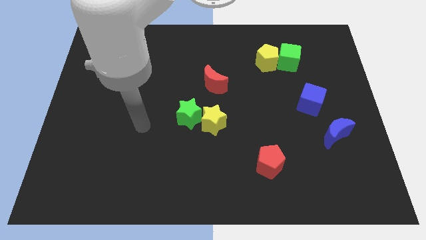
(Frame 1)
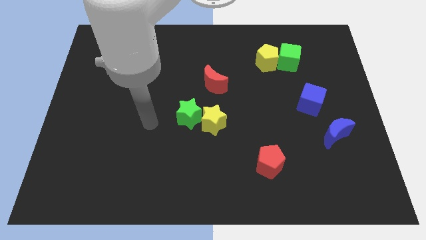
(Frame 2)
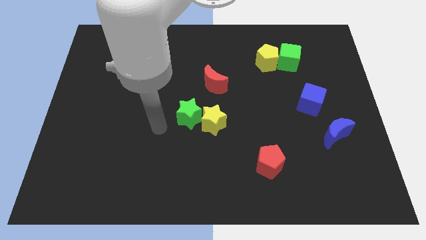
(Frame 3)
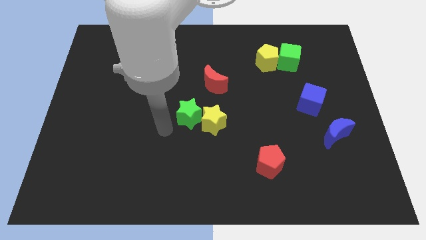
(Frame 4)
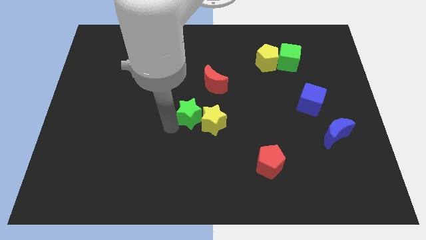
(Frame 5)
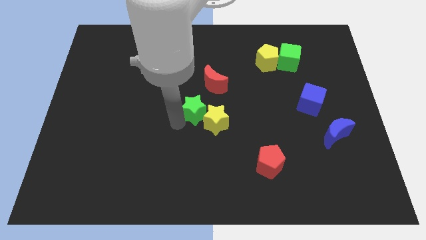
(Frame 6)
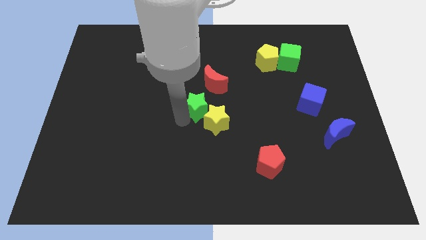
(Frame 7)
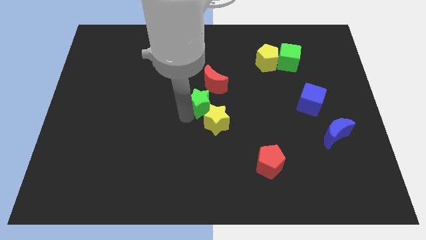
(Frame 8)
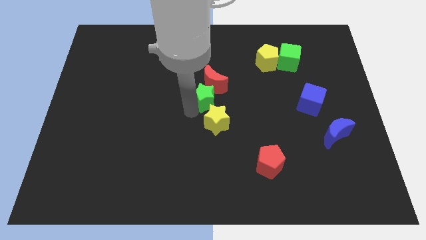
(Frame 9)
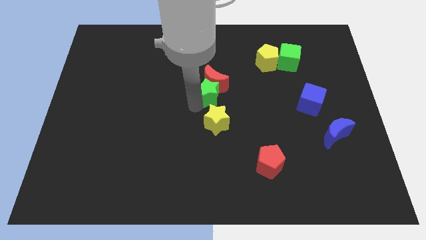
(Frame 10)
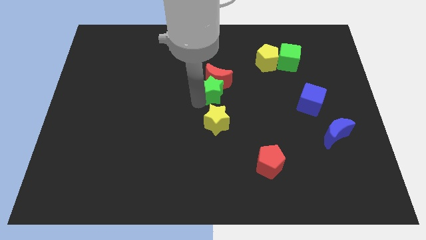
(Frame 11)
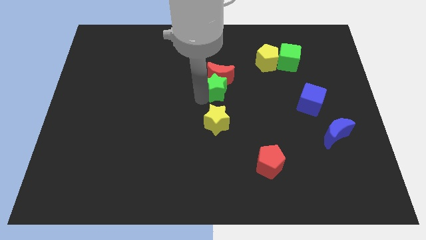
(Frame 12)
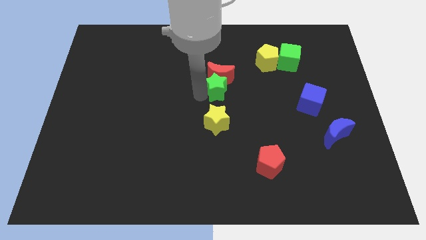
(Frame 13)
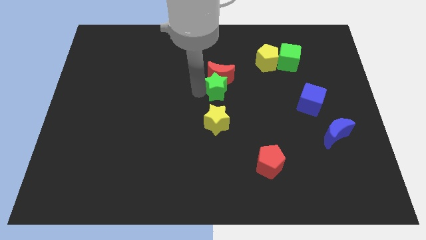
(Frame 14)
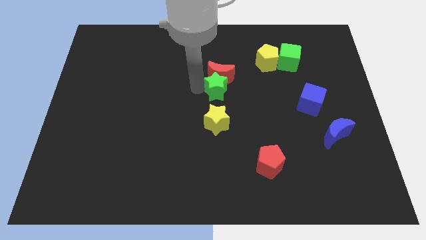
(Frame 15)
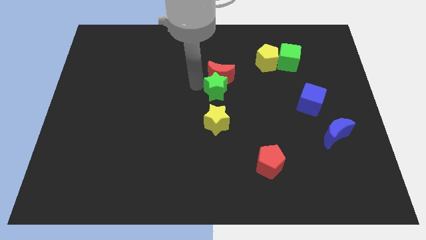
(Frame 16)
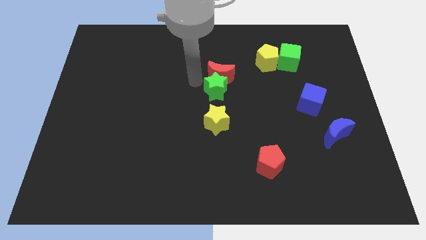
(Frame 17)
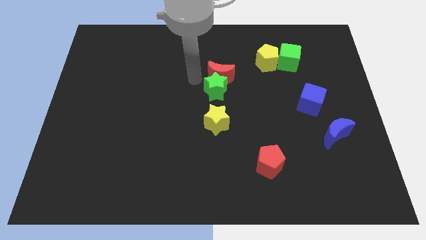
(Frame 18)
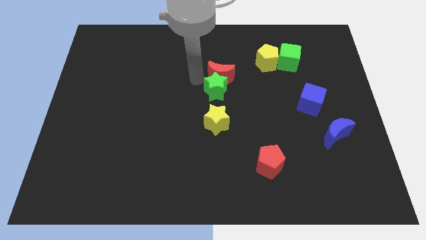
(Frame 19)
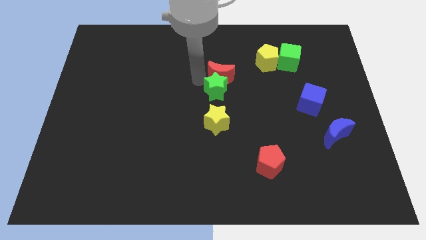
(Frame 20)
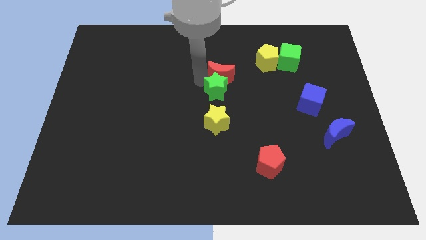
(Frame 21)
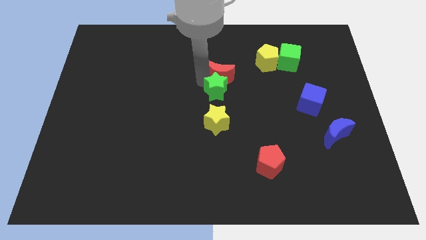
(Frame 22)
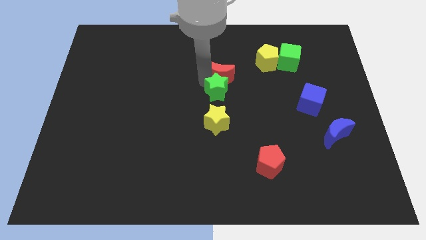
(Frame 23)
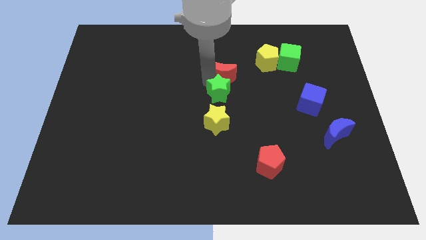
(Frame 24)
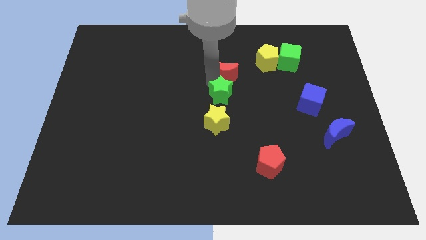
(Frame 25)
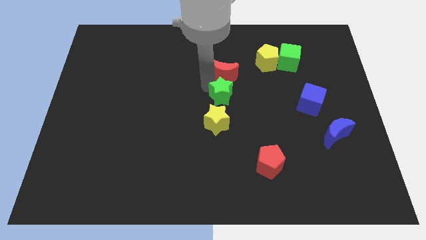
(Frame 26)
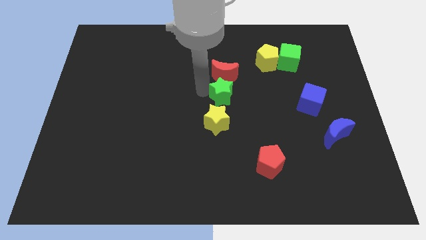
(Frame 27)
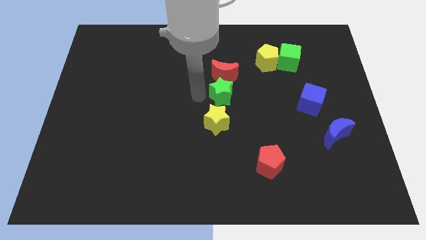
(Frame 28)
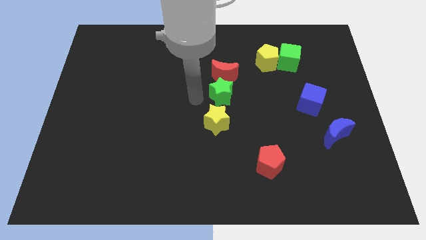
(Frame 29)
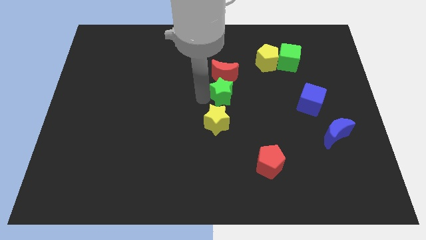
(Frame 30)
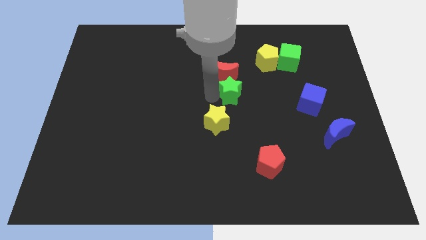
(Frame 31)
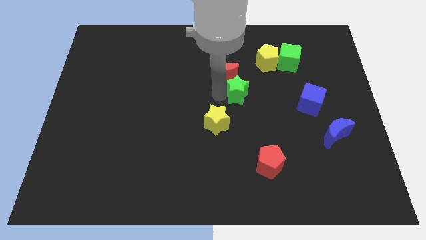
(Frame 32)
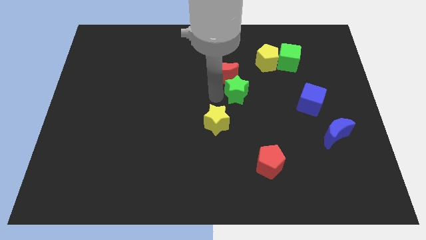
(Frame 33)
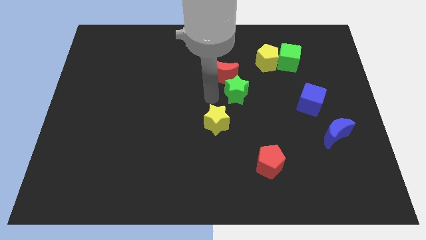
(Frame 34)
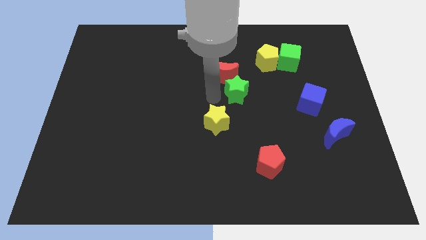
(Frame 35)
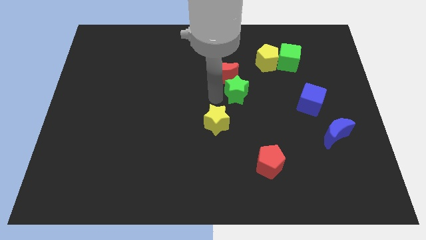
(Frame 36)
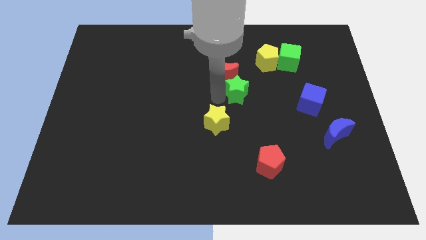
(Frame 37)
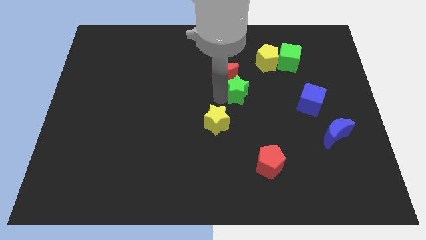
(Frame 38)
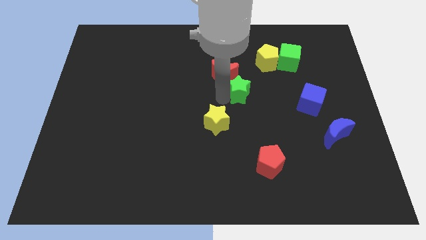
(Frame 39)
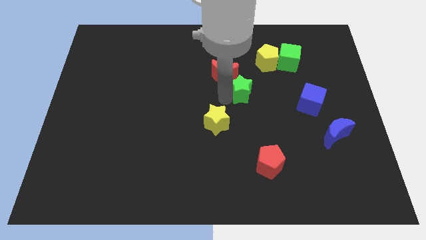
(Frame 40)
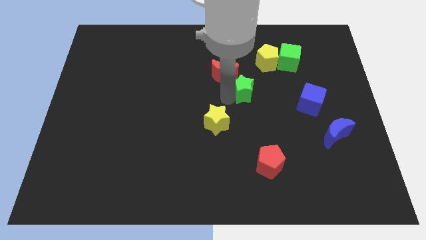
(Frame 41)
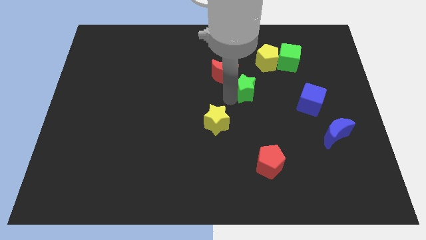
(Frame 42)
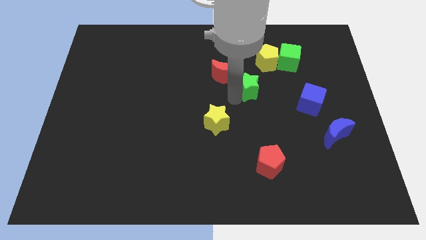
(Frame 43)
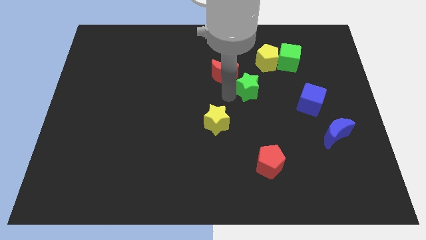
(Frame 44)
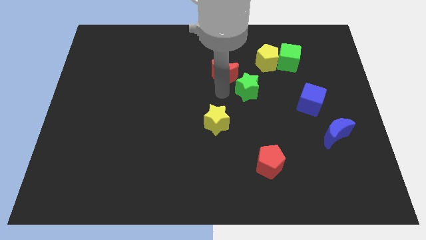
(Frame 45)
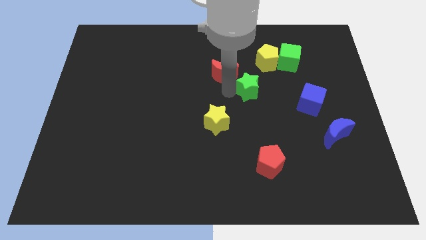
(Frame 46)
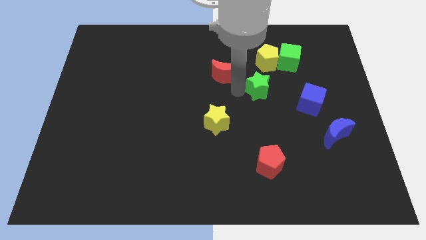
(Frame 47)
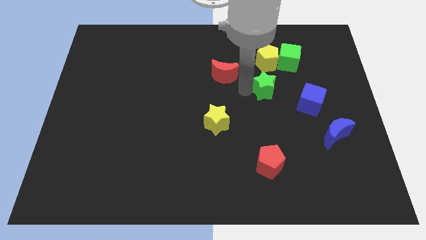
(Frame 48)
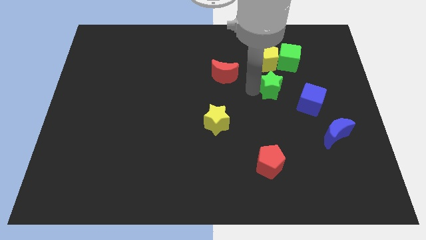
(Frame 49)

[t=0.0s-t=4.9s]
push the green star to the top left side of the blue cube

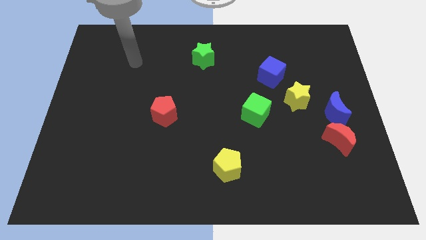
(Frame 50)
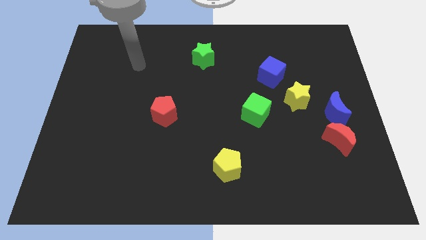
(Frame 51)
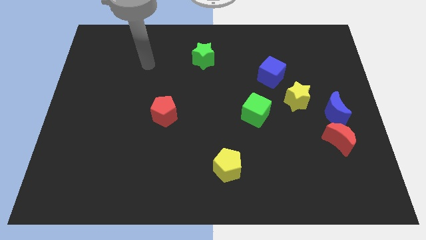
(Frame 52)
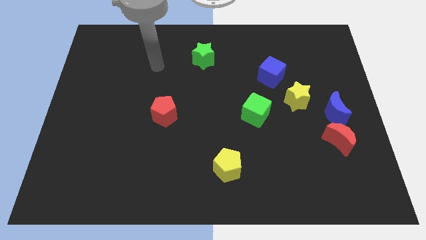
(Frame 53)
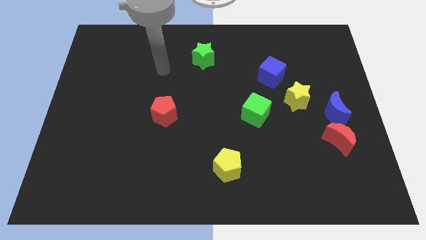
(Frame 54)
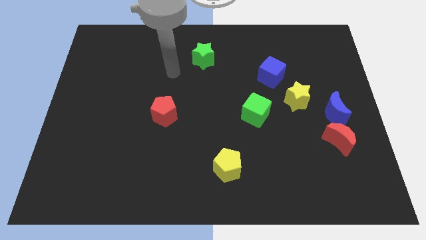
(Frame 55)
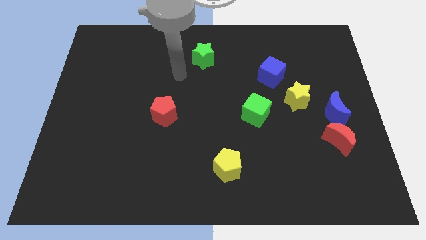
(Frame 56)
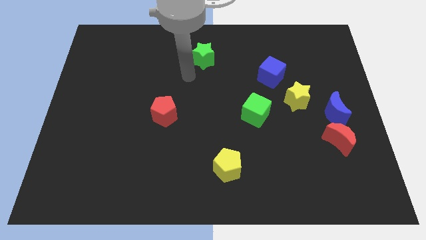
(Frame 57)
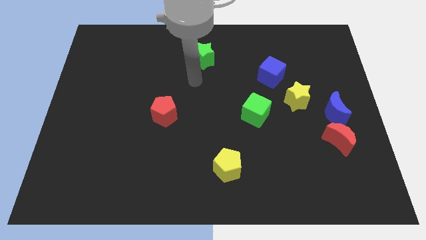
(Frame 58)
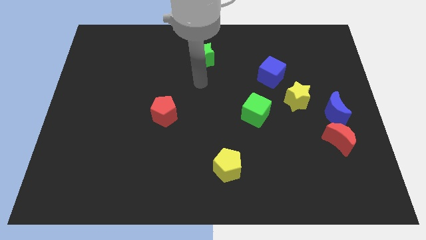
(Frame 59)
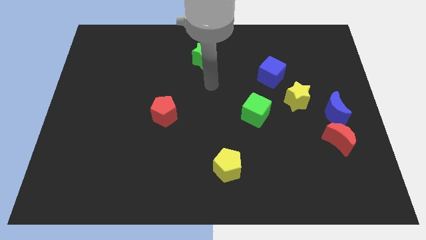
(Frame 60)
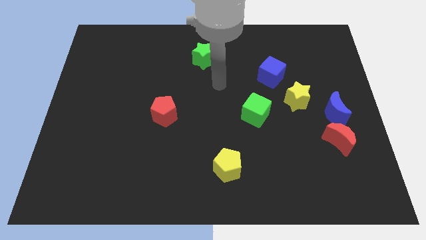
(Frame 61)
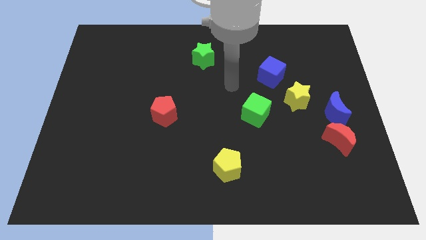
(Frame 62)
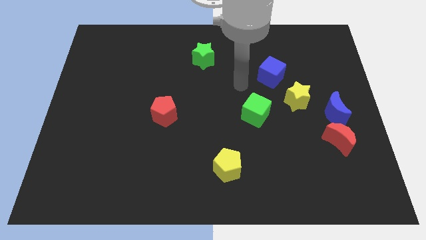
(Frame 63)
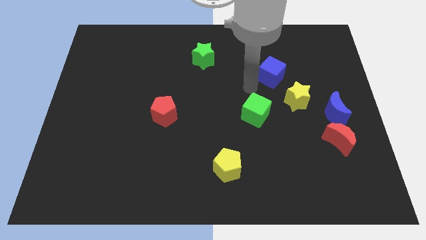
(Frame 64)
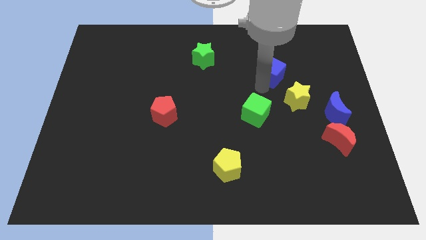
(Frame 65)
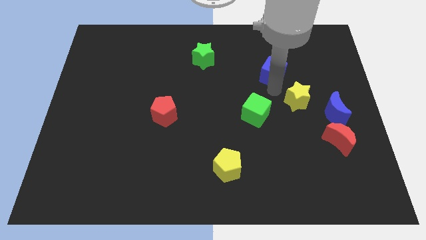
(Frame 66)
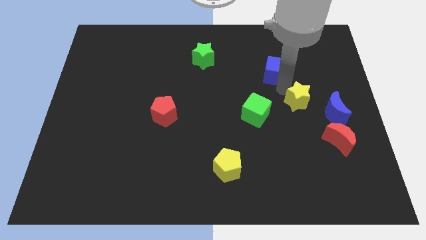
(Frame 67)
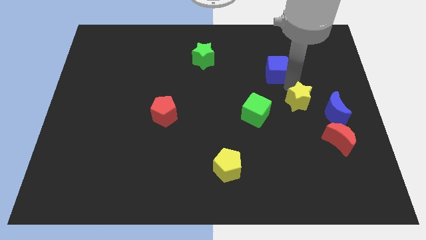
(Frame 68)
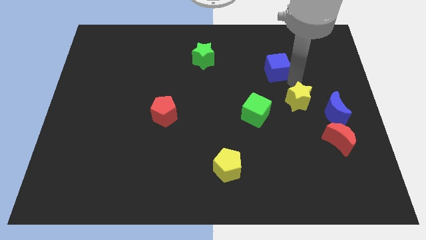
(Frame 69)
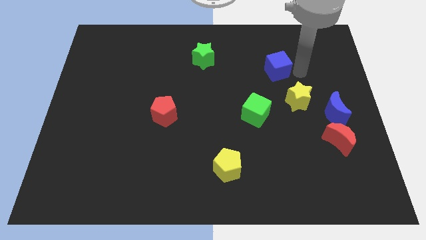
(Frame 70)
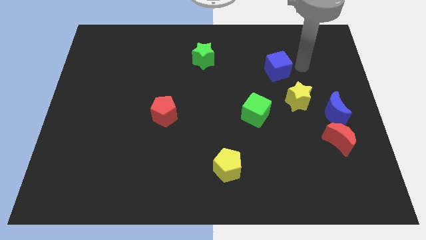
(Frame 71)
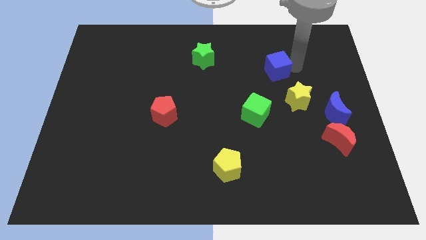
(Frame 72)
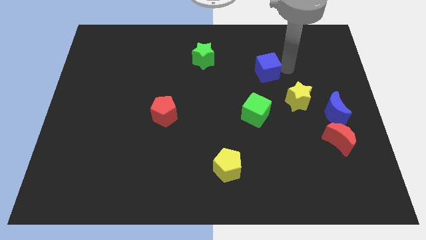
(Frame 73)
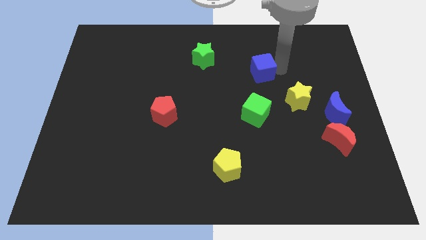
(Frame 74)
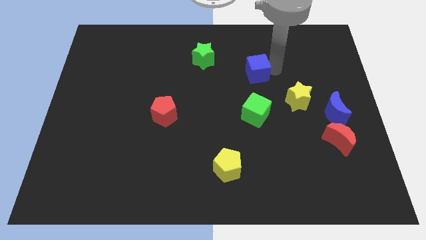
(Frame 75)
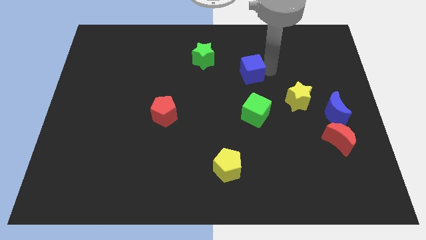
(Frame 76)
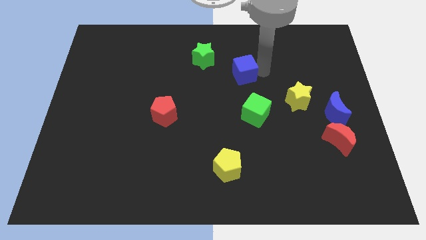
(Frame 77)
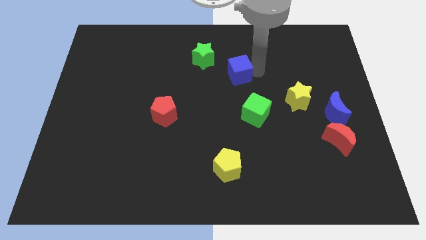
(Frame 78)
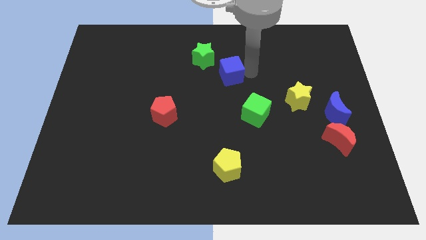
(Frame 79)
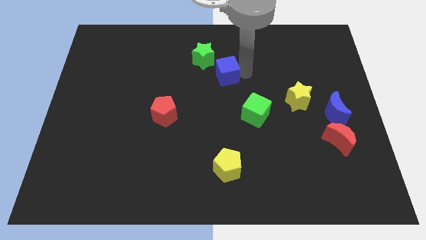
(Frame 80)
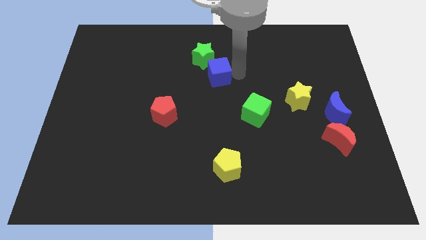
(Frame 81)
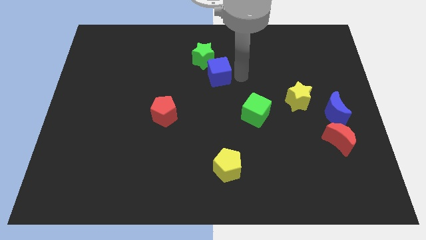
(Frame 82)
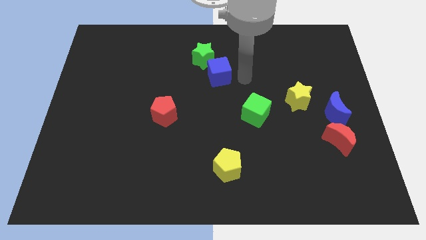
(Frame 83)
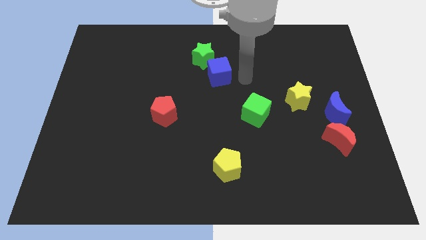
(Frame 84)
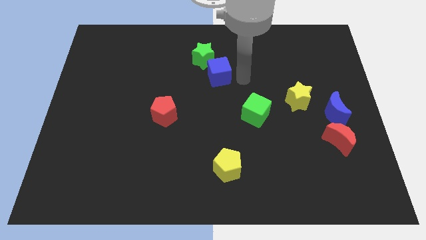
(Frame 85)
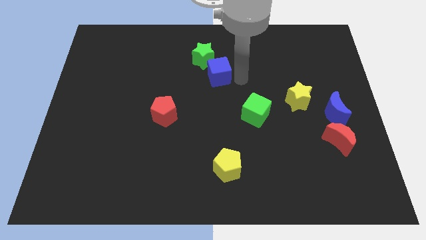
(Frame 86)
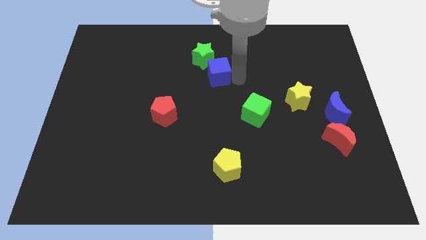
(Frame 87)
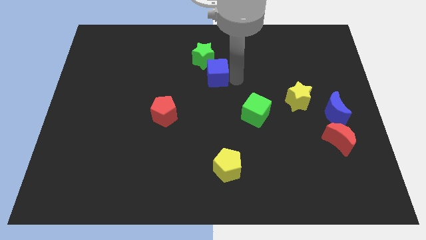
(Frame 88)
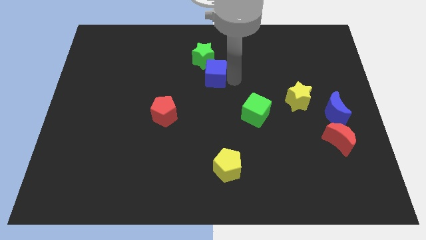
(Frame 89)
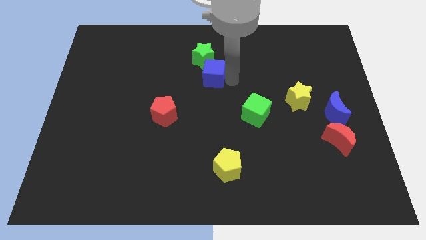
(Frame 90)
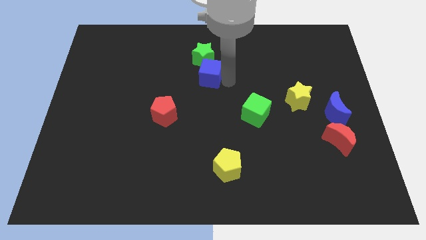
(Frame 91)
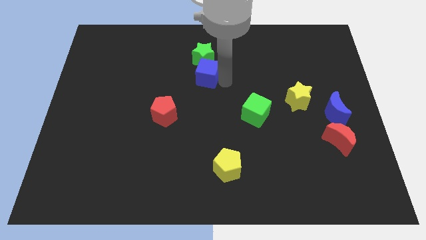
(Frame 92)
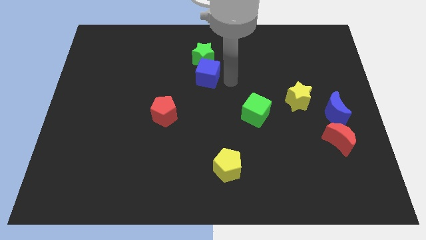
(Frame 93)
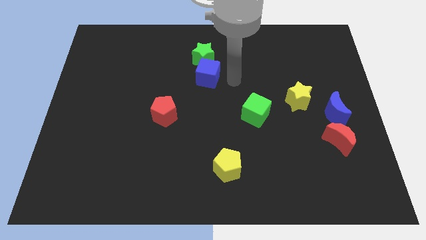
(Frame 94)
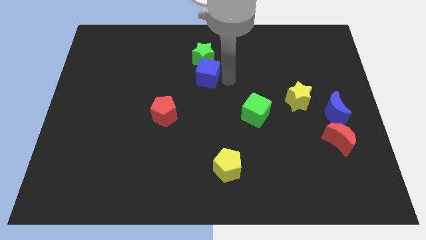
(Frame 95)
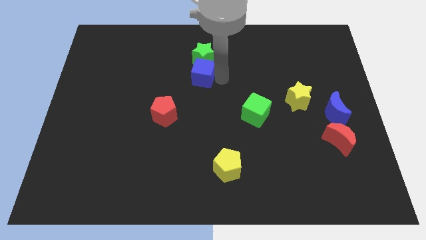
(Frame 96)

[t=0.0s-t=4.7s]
push the blue cube to the bottom left side of the green star
